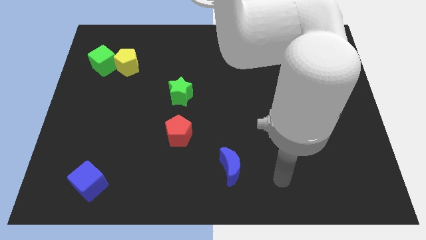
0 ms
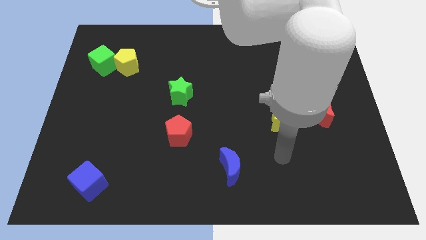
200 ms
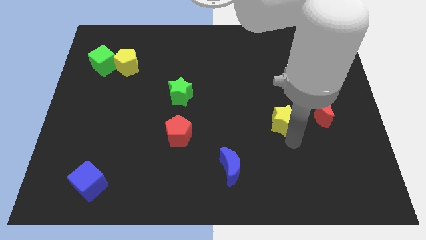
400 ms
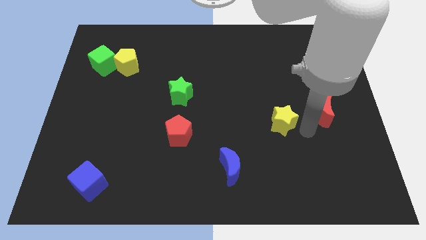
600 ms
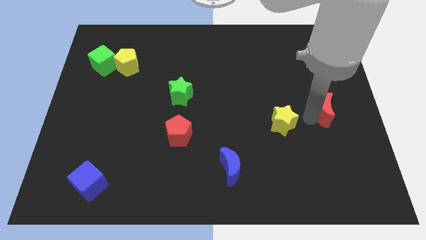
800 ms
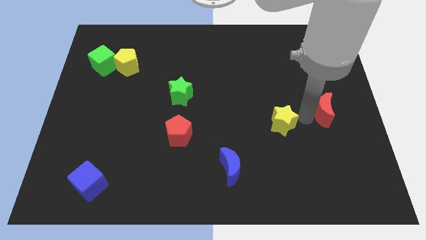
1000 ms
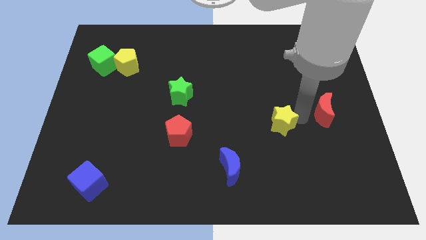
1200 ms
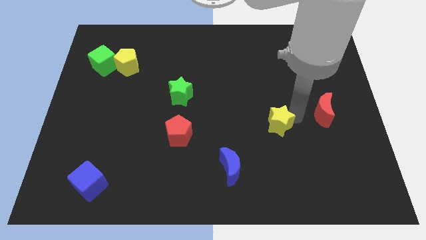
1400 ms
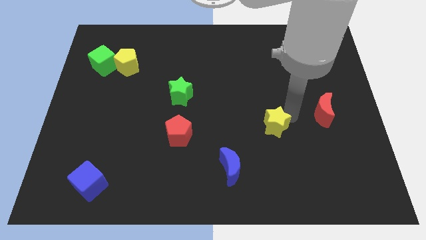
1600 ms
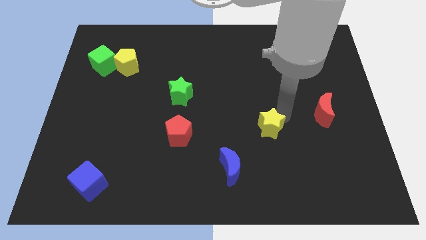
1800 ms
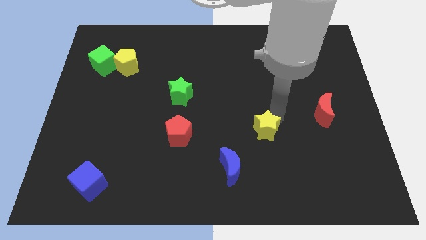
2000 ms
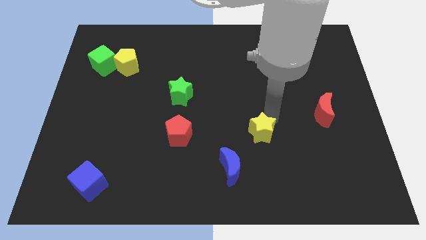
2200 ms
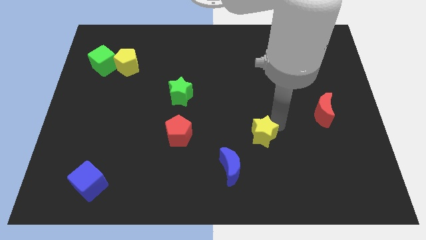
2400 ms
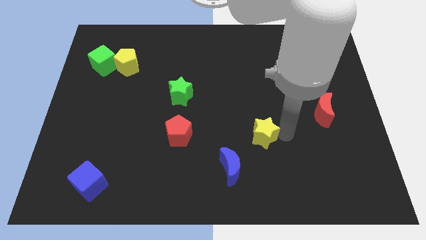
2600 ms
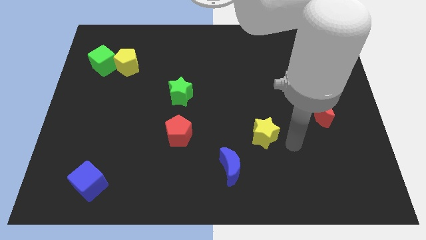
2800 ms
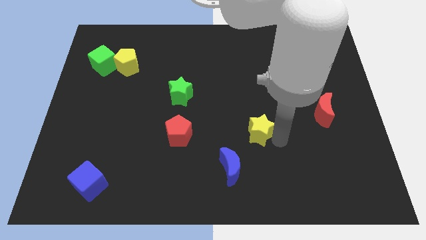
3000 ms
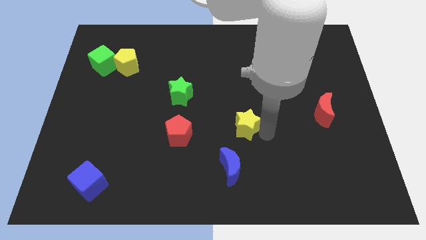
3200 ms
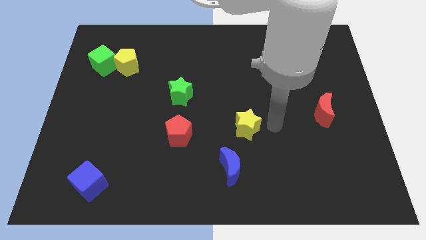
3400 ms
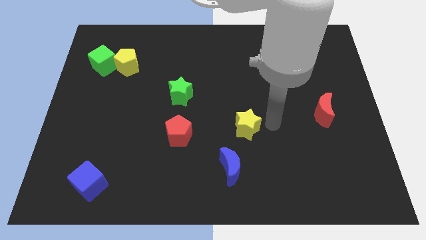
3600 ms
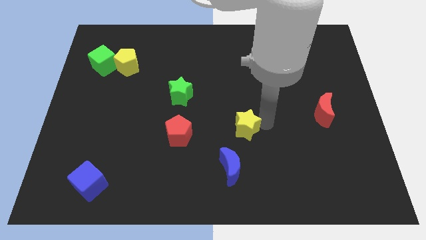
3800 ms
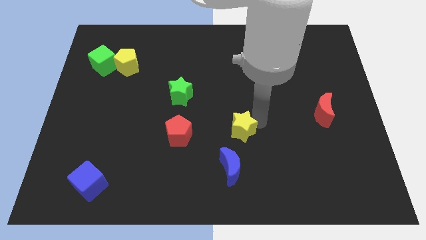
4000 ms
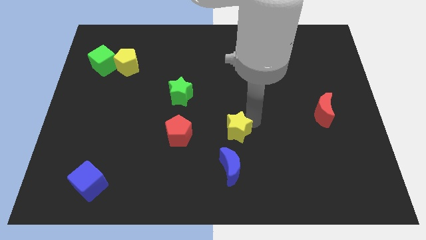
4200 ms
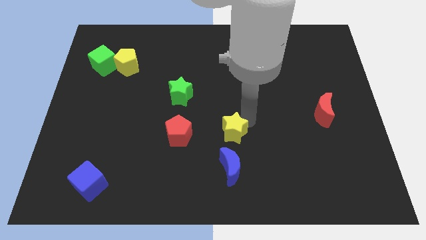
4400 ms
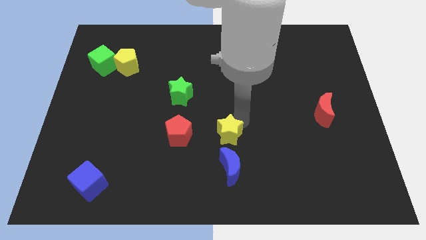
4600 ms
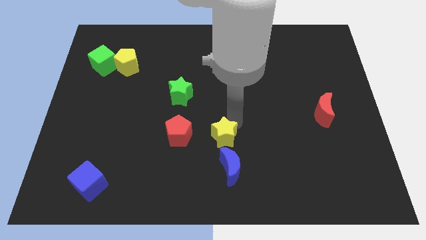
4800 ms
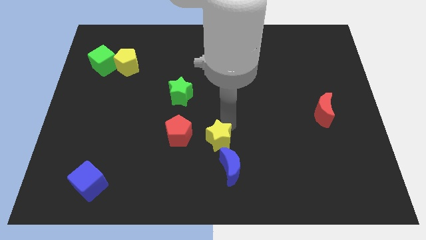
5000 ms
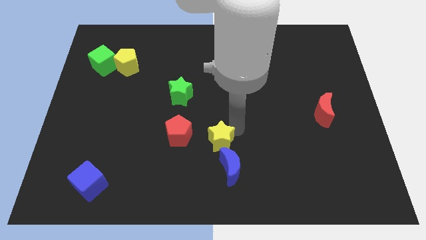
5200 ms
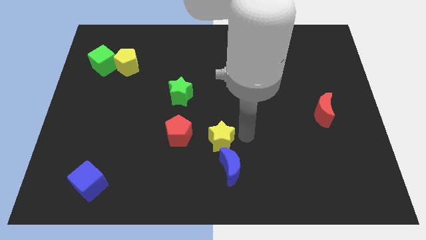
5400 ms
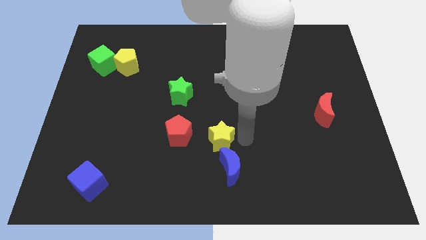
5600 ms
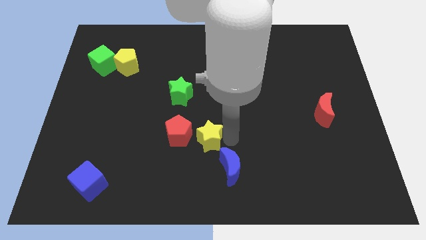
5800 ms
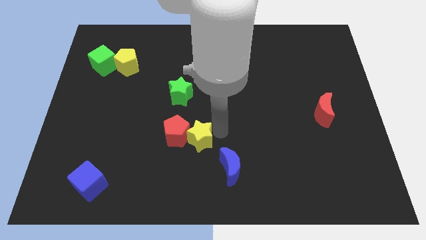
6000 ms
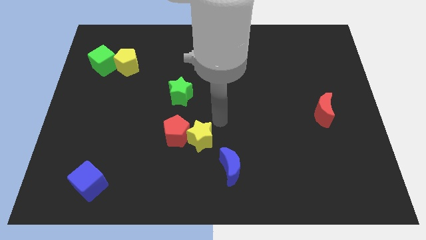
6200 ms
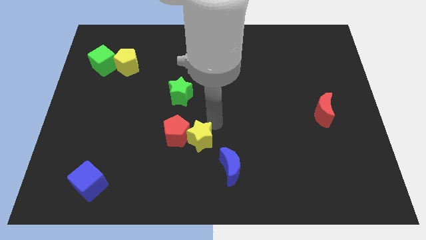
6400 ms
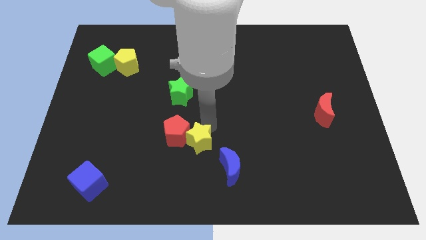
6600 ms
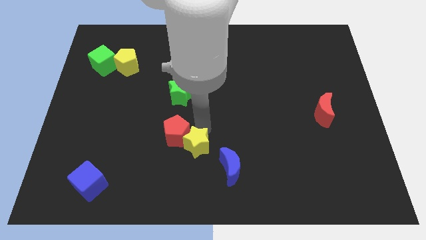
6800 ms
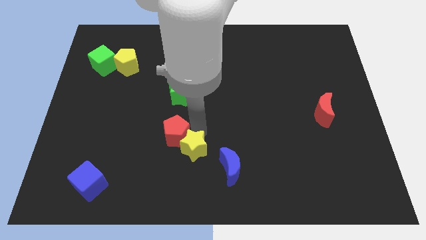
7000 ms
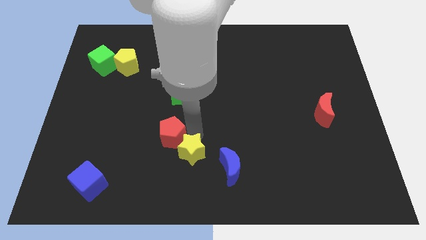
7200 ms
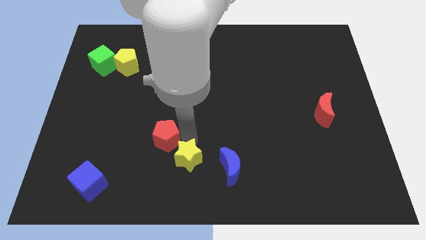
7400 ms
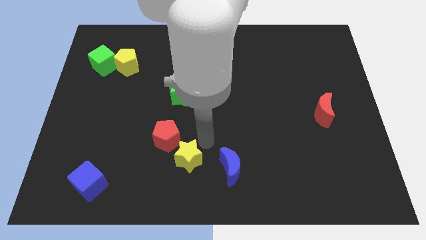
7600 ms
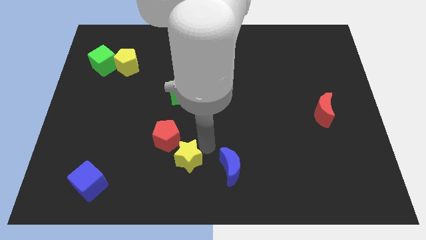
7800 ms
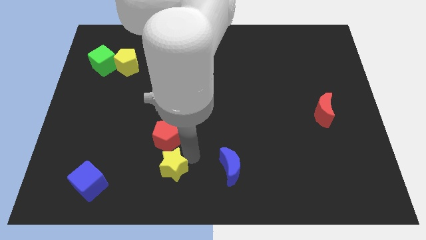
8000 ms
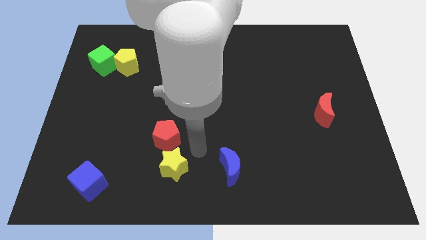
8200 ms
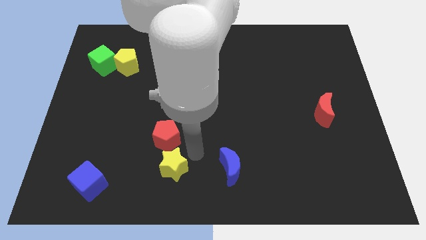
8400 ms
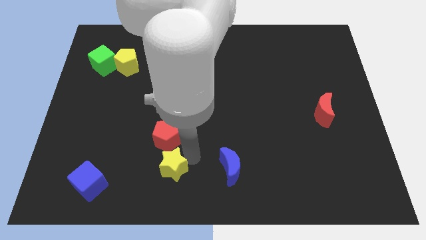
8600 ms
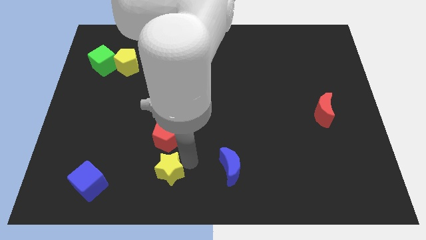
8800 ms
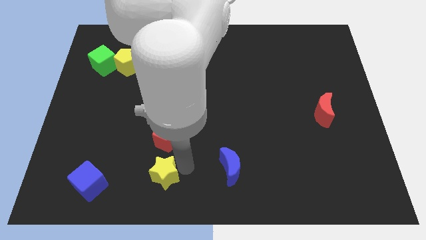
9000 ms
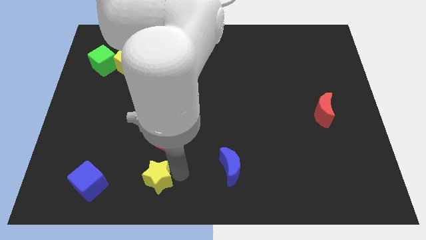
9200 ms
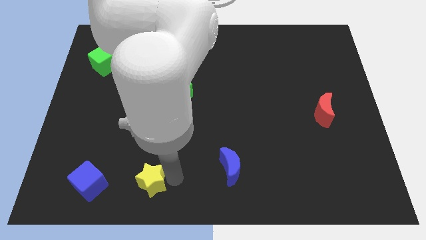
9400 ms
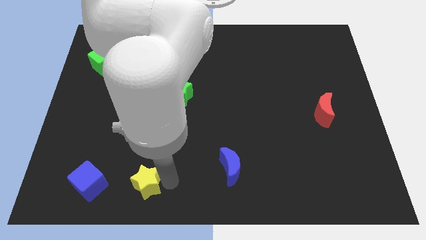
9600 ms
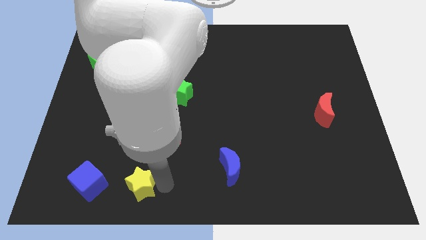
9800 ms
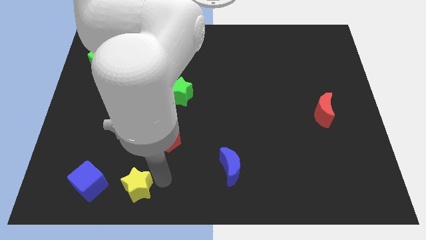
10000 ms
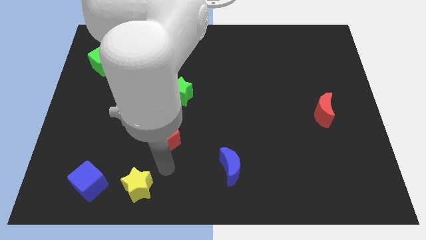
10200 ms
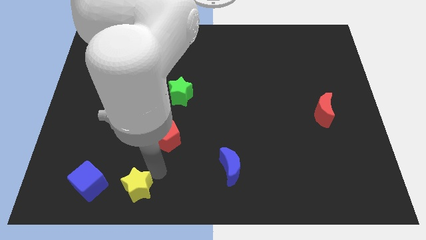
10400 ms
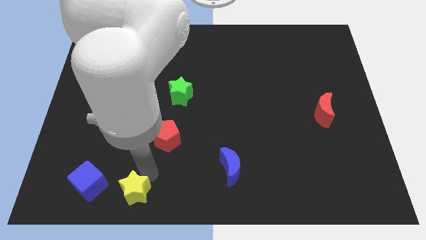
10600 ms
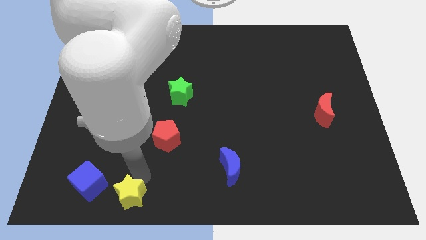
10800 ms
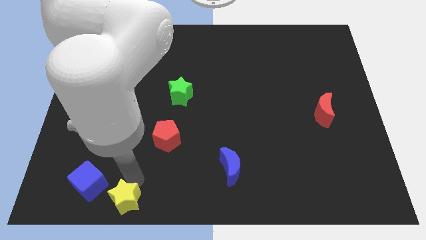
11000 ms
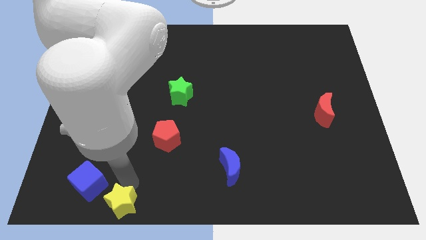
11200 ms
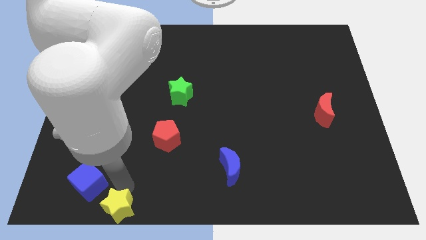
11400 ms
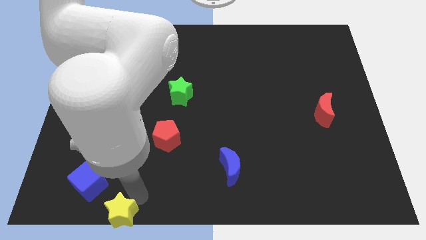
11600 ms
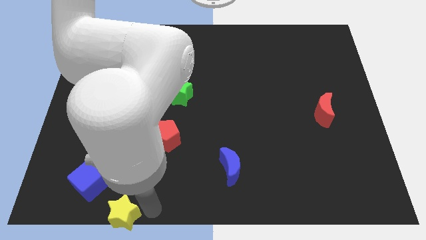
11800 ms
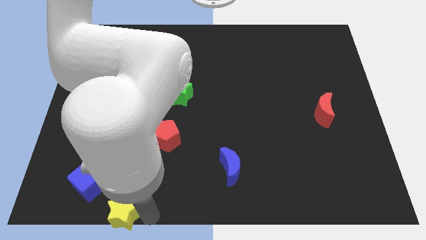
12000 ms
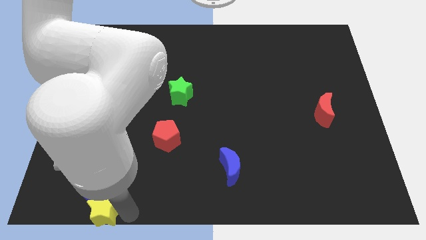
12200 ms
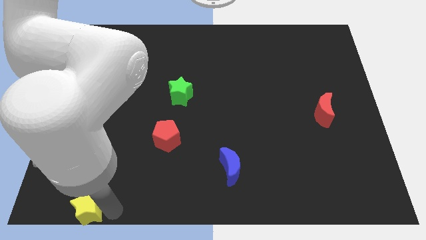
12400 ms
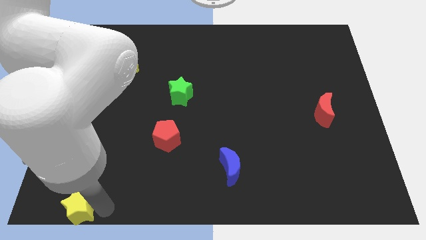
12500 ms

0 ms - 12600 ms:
slide the yellow star to the lower left corner
